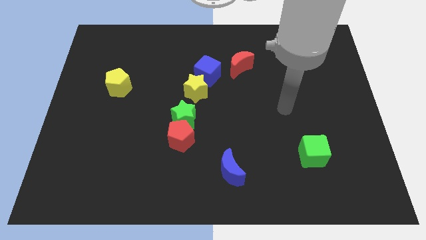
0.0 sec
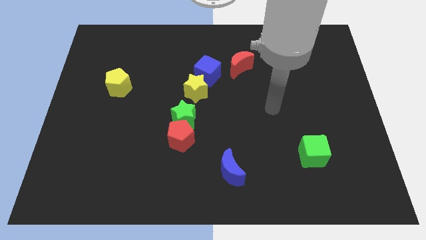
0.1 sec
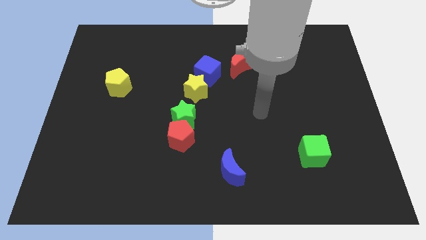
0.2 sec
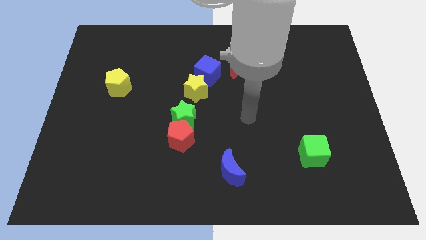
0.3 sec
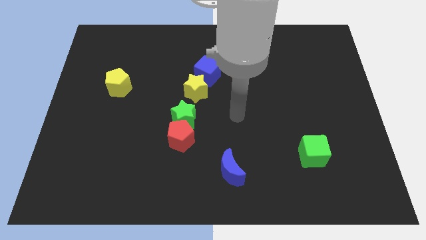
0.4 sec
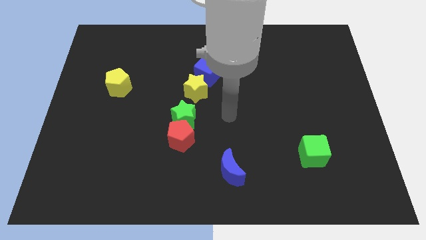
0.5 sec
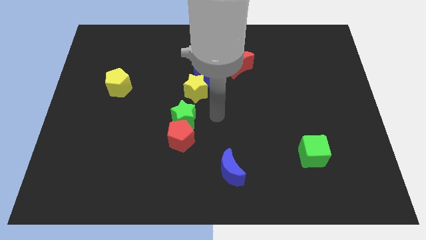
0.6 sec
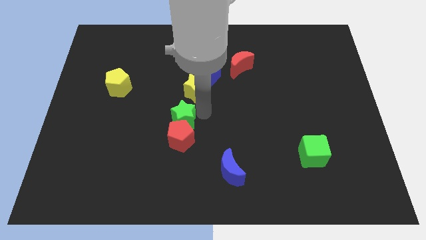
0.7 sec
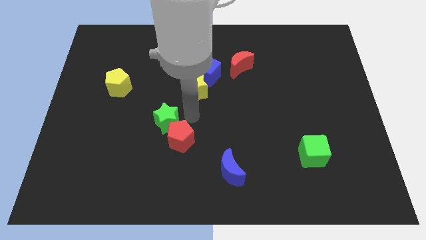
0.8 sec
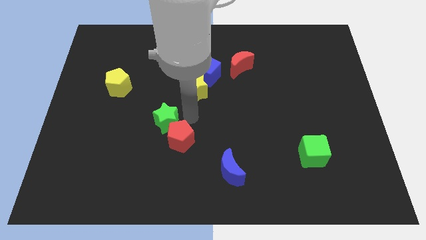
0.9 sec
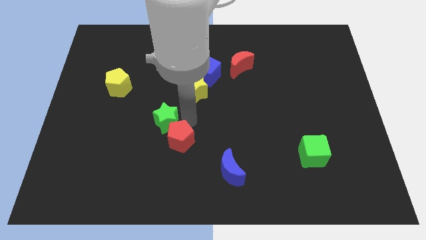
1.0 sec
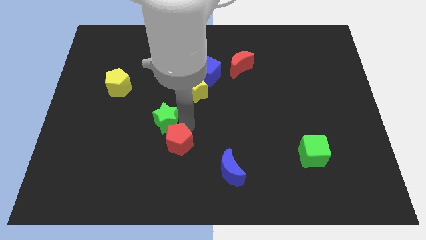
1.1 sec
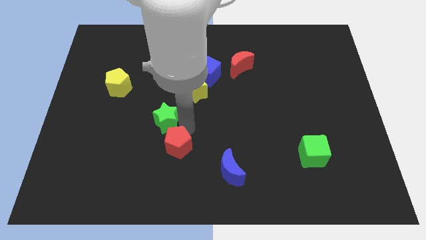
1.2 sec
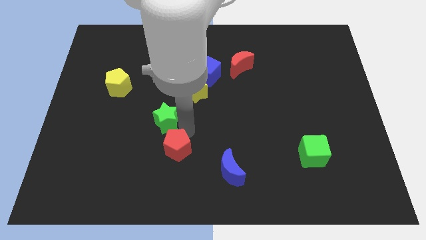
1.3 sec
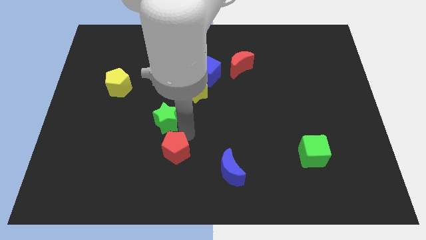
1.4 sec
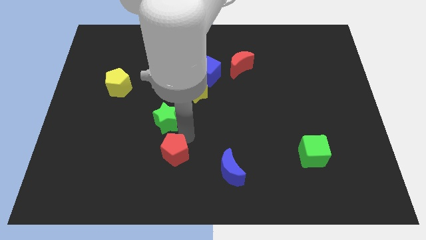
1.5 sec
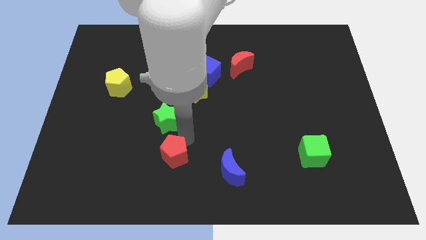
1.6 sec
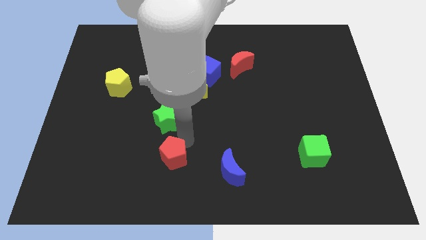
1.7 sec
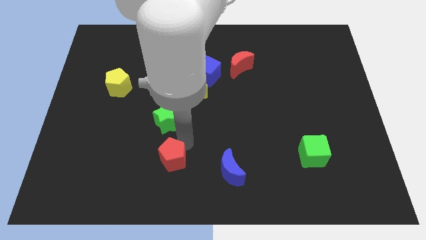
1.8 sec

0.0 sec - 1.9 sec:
separate the red pentagon from the green star

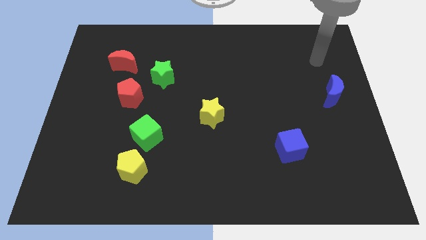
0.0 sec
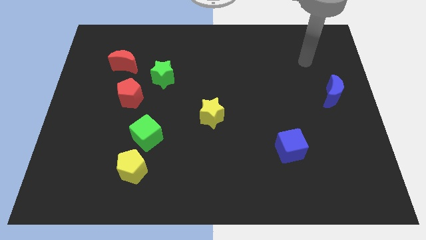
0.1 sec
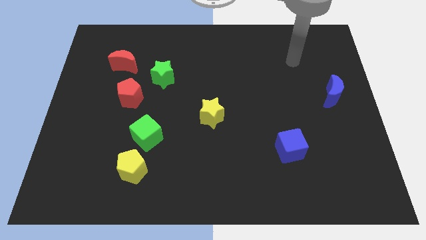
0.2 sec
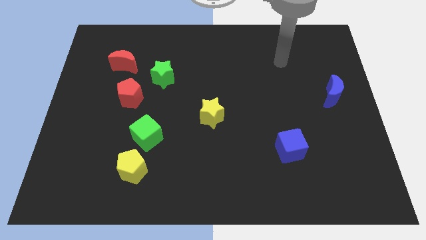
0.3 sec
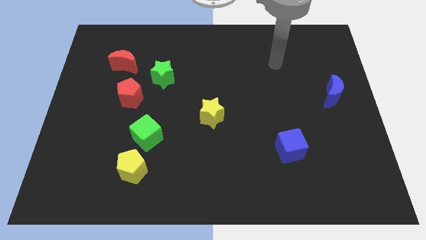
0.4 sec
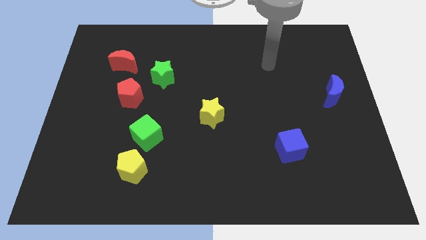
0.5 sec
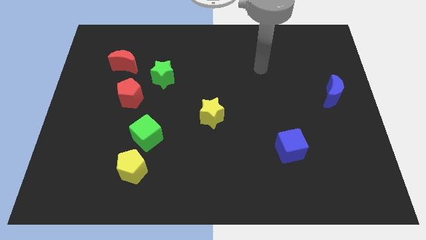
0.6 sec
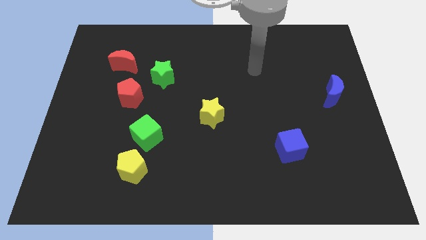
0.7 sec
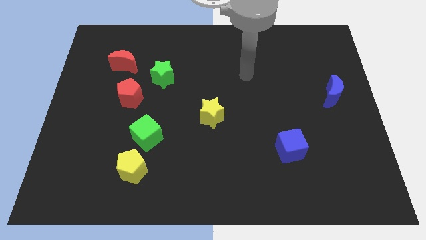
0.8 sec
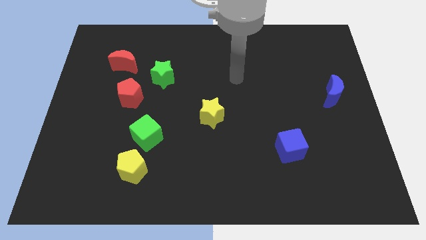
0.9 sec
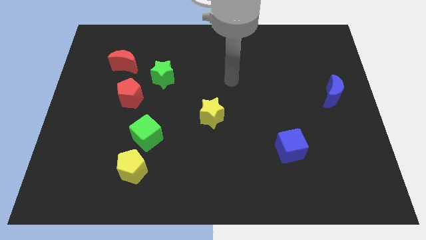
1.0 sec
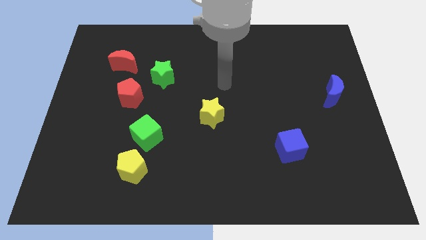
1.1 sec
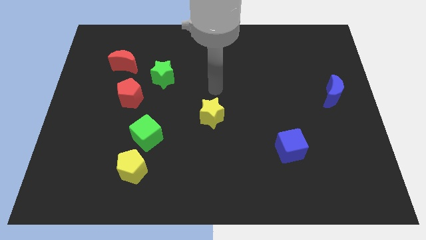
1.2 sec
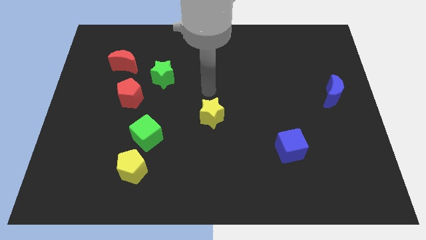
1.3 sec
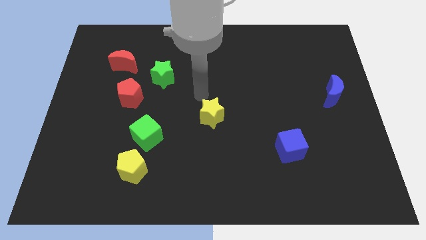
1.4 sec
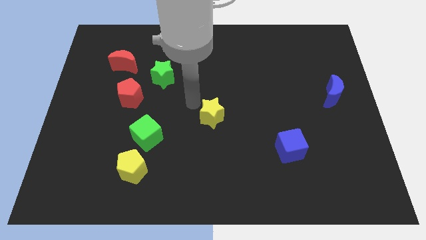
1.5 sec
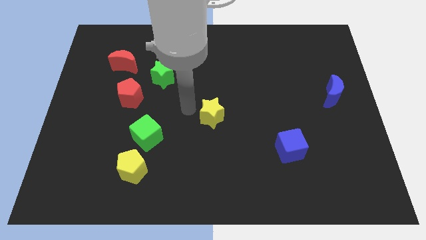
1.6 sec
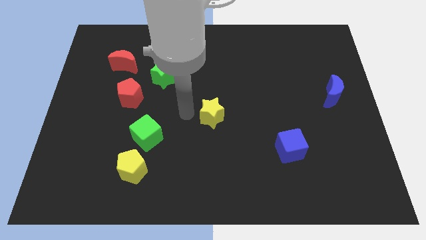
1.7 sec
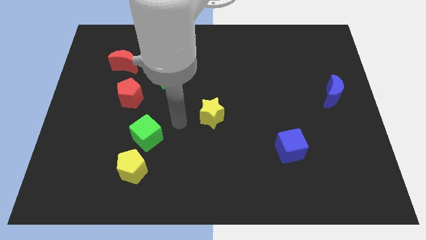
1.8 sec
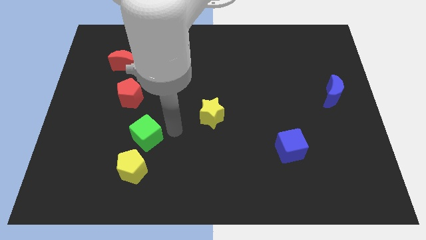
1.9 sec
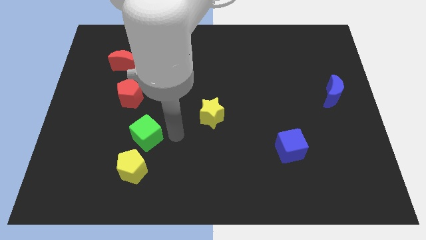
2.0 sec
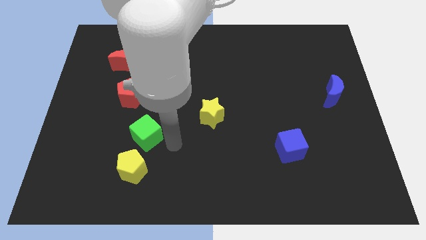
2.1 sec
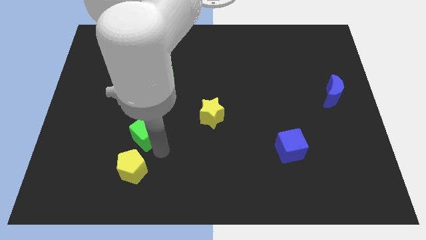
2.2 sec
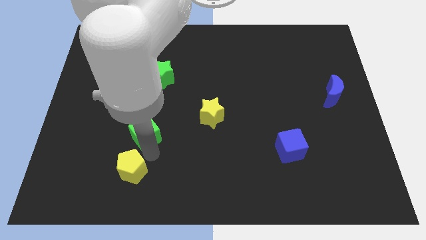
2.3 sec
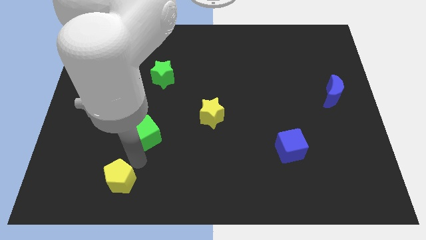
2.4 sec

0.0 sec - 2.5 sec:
separate the green cube from the yellow pentagon

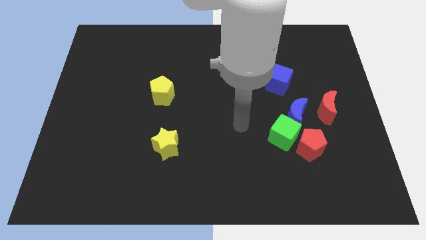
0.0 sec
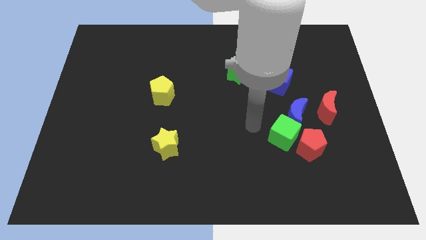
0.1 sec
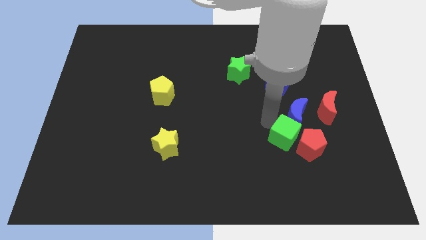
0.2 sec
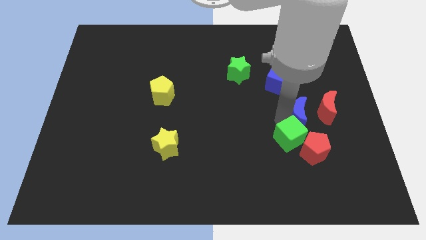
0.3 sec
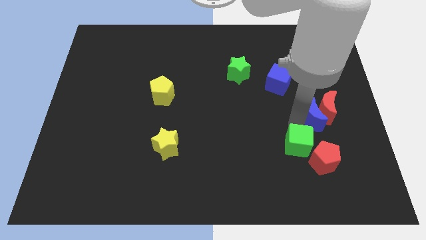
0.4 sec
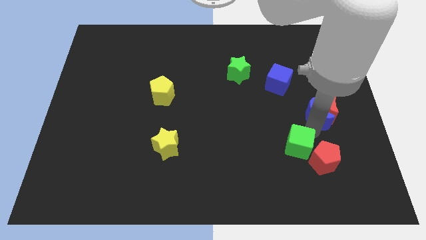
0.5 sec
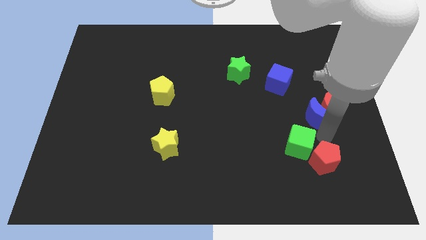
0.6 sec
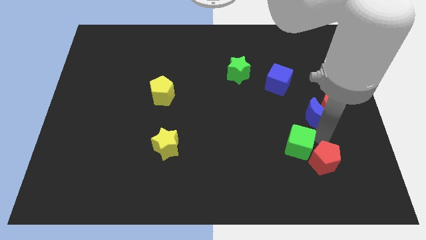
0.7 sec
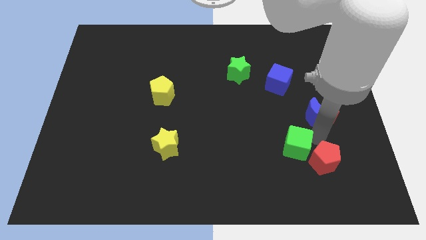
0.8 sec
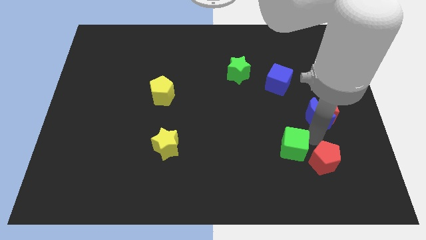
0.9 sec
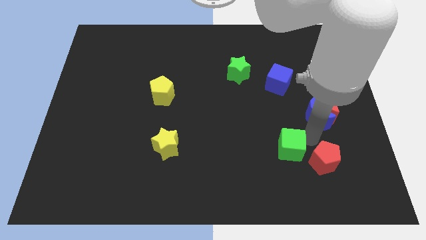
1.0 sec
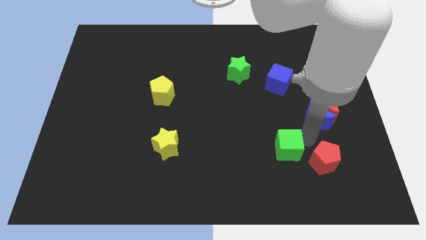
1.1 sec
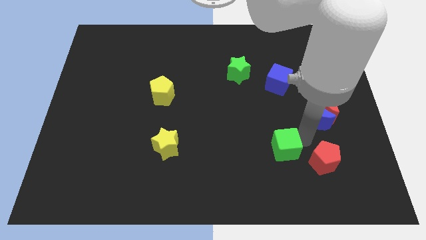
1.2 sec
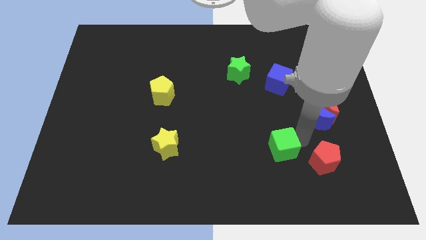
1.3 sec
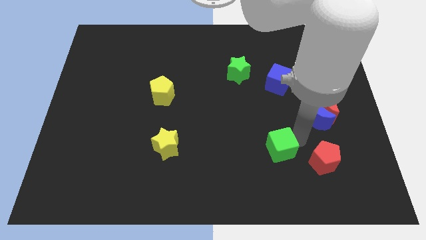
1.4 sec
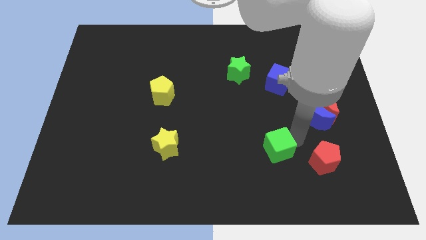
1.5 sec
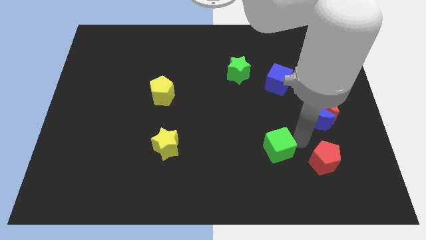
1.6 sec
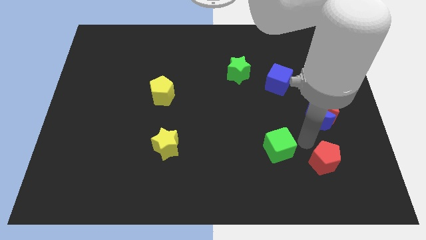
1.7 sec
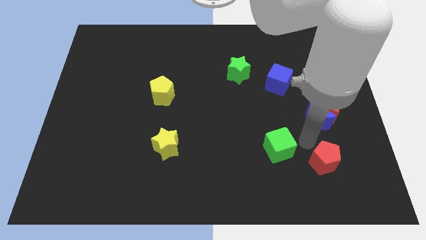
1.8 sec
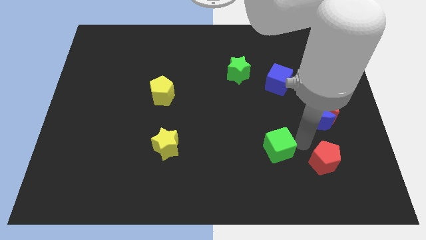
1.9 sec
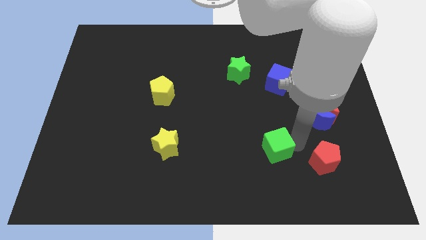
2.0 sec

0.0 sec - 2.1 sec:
pull the green cube apart from the red pentagon and blue moon

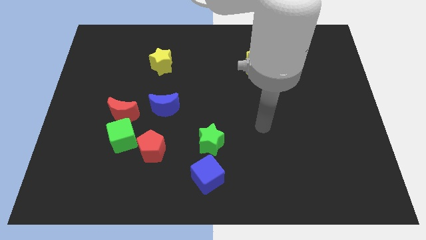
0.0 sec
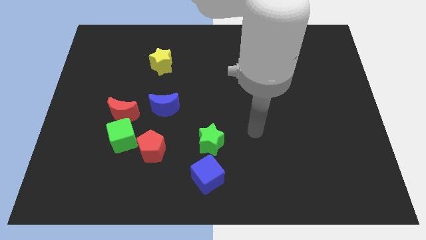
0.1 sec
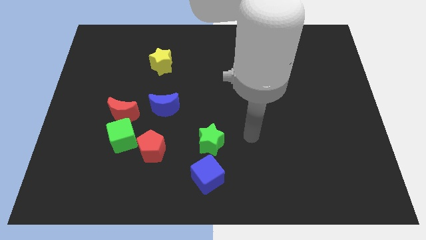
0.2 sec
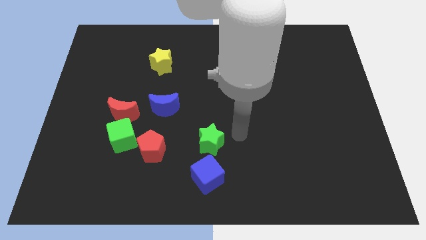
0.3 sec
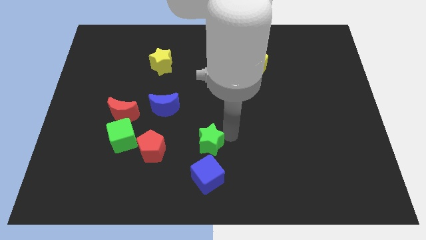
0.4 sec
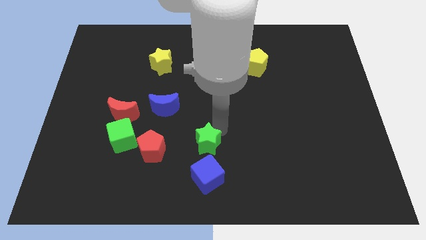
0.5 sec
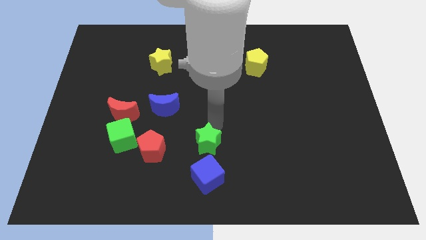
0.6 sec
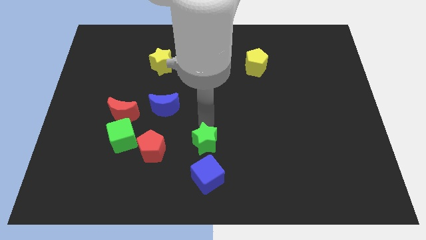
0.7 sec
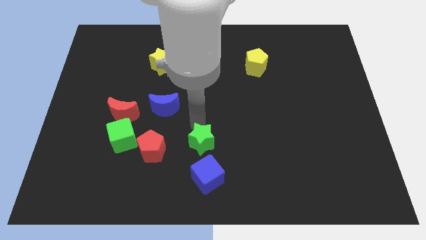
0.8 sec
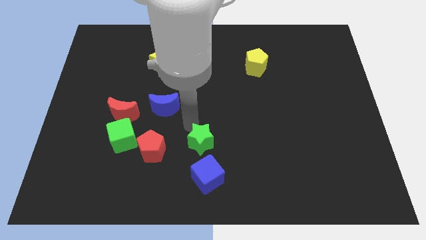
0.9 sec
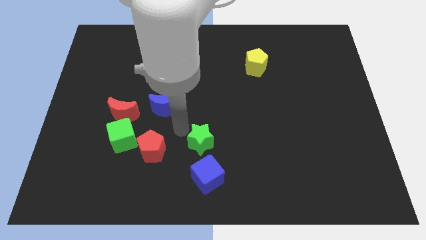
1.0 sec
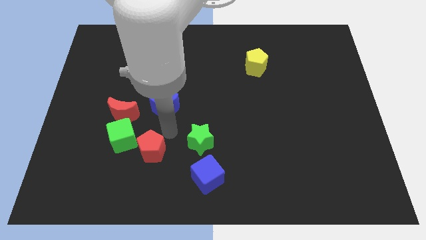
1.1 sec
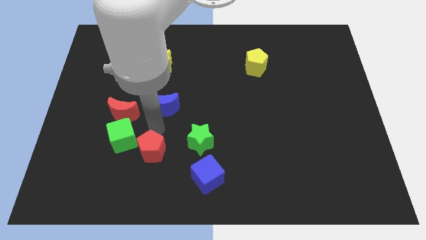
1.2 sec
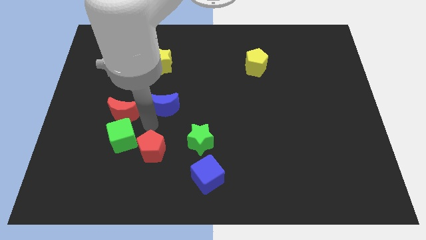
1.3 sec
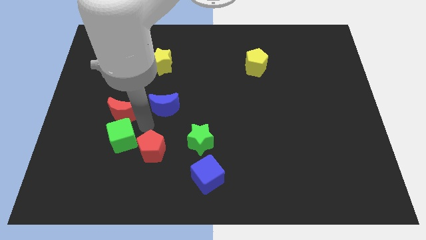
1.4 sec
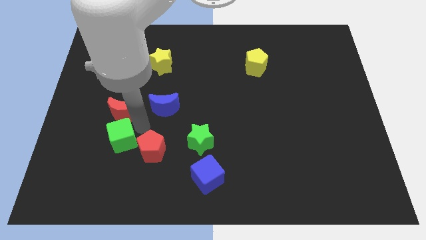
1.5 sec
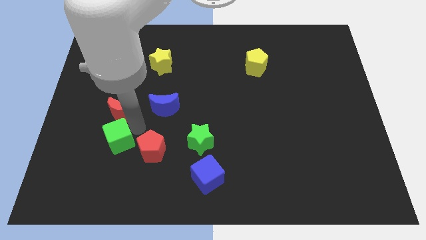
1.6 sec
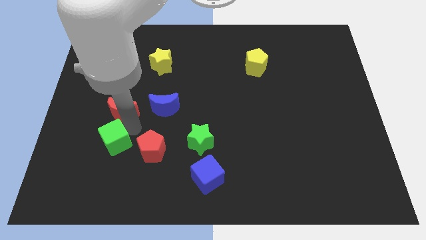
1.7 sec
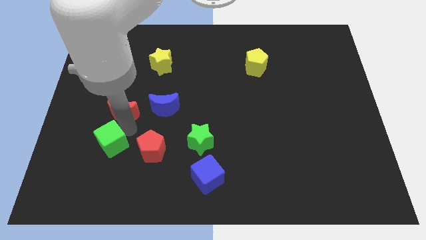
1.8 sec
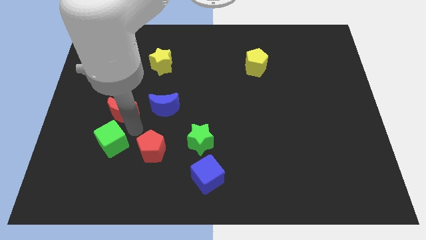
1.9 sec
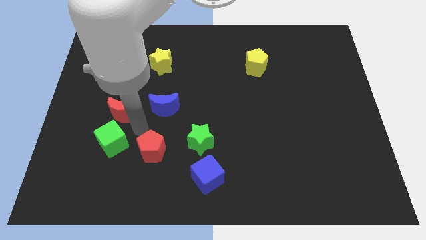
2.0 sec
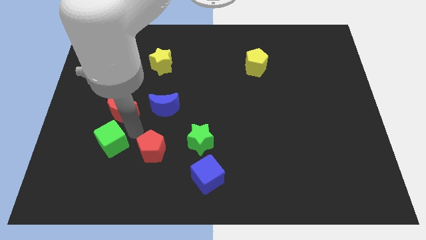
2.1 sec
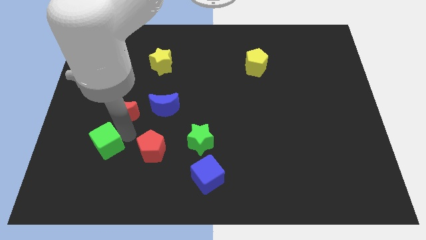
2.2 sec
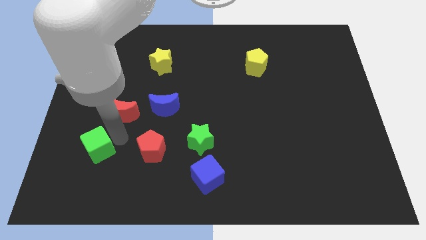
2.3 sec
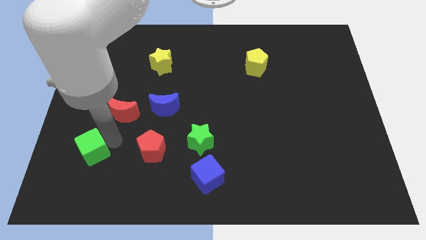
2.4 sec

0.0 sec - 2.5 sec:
pull the green cube apart from the red moon and red pentagon

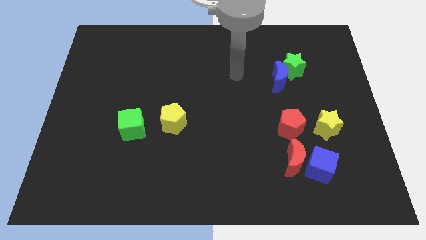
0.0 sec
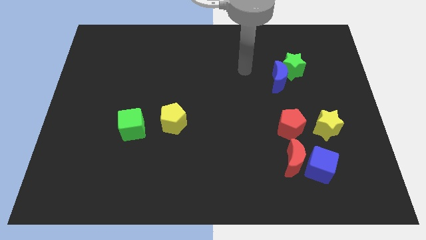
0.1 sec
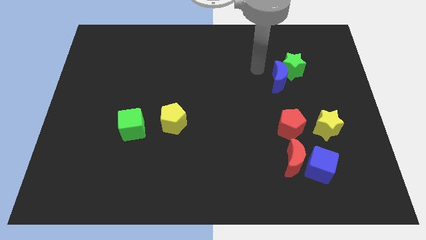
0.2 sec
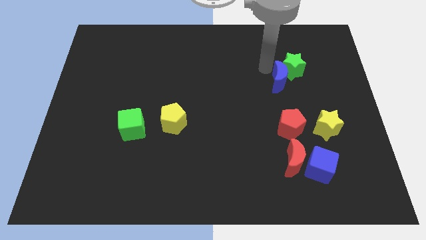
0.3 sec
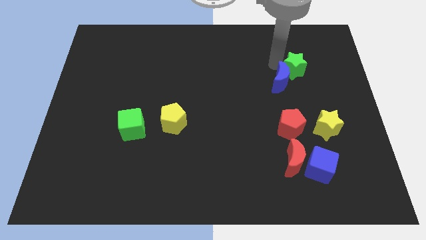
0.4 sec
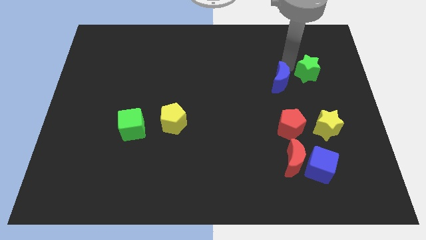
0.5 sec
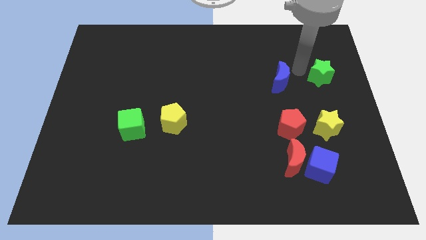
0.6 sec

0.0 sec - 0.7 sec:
pull the blue moon apart from the green star
